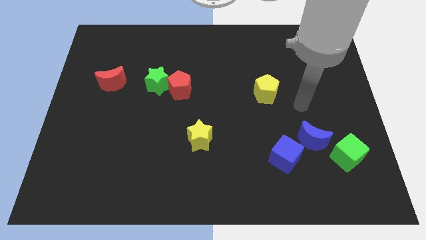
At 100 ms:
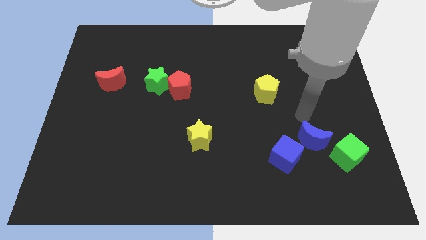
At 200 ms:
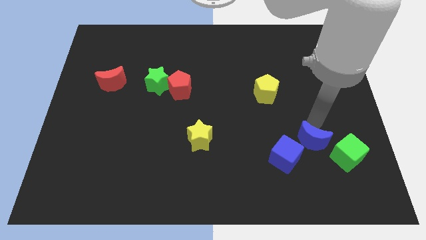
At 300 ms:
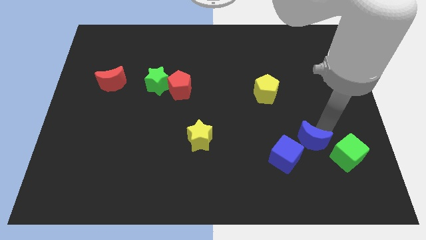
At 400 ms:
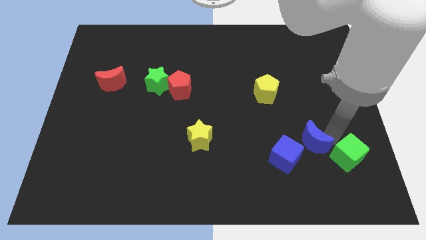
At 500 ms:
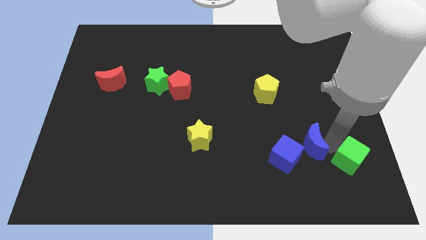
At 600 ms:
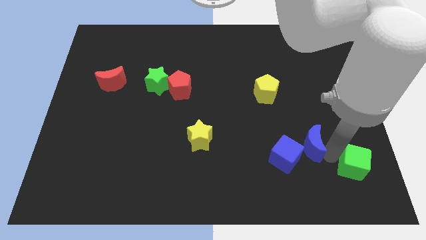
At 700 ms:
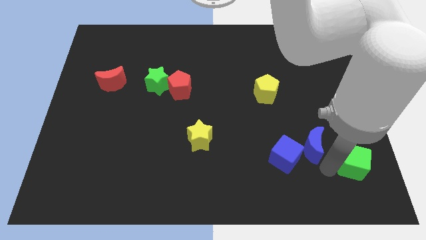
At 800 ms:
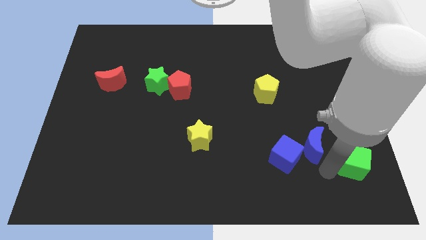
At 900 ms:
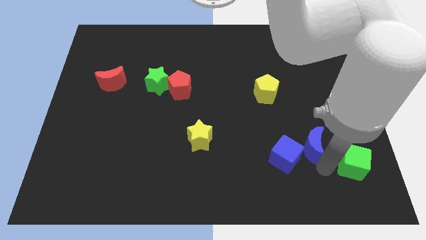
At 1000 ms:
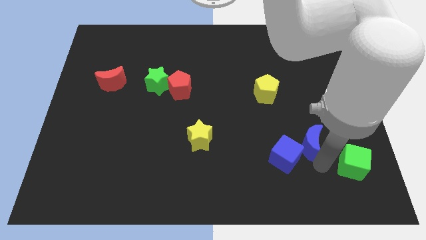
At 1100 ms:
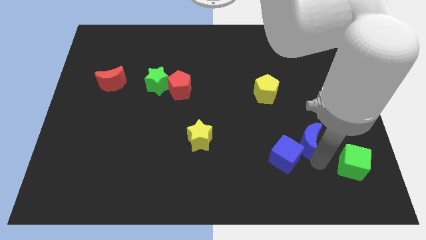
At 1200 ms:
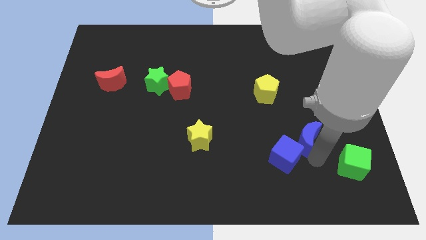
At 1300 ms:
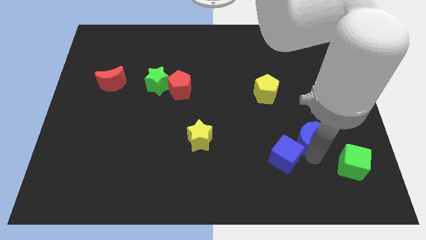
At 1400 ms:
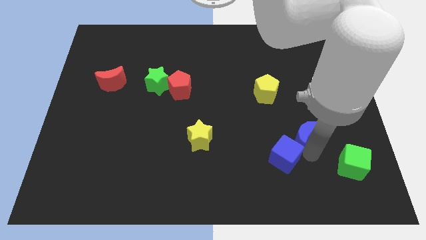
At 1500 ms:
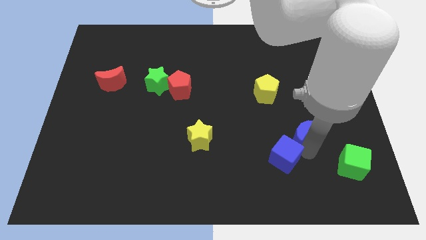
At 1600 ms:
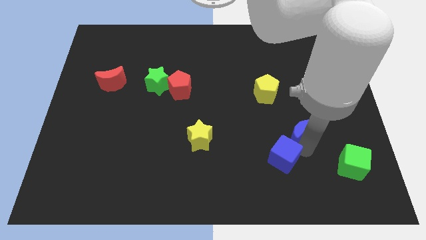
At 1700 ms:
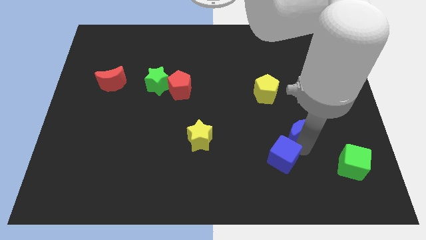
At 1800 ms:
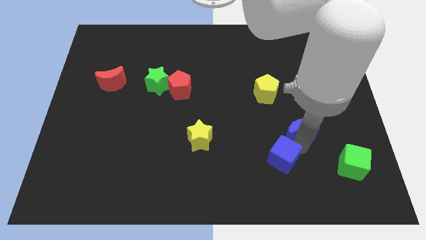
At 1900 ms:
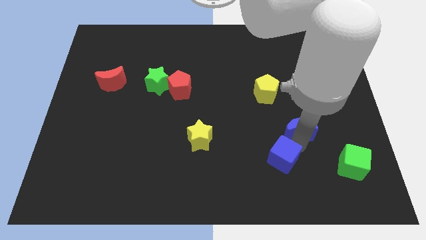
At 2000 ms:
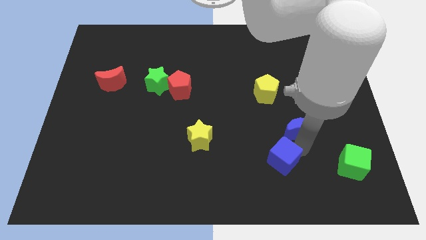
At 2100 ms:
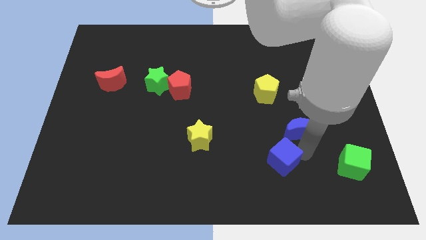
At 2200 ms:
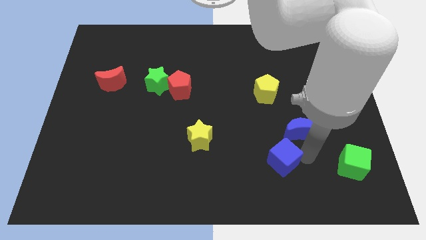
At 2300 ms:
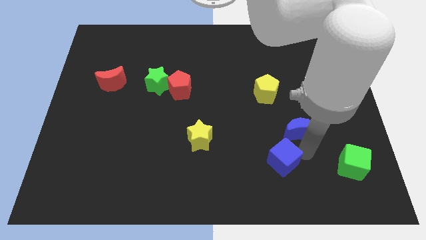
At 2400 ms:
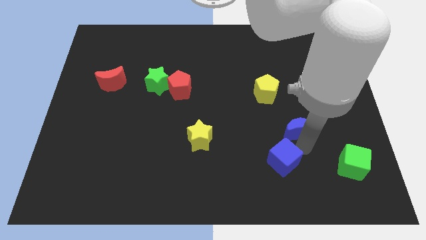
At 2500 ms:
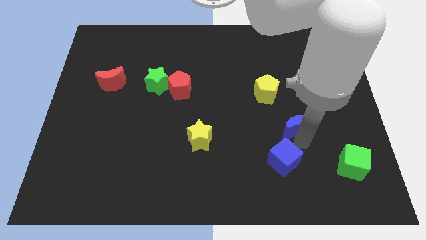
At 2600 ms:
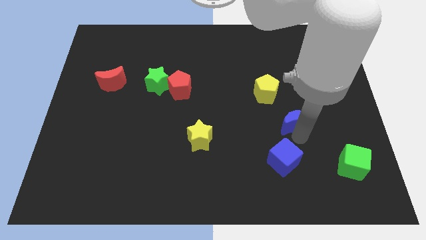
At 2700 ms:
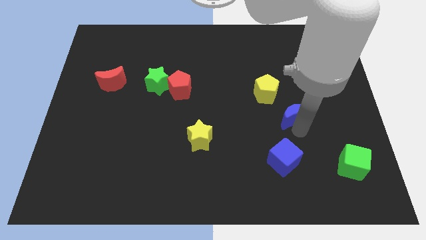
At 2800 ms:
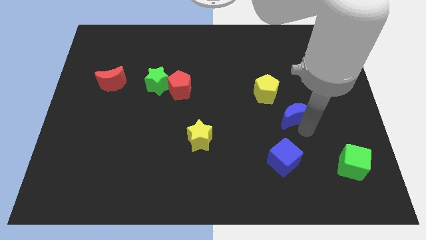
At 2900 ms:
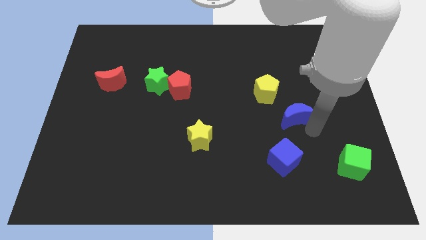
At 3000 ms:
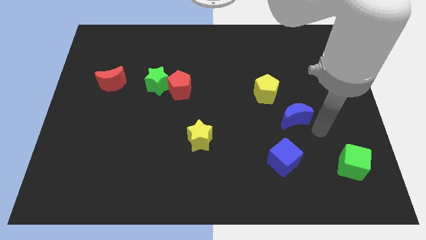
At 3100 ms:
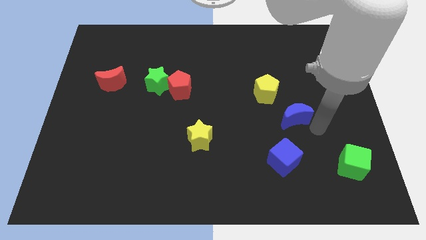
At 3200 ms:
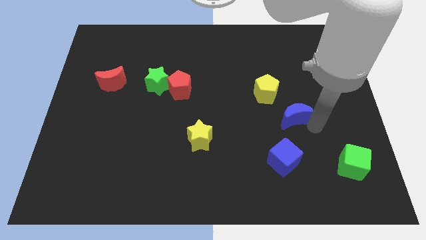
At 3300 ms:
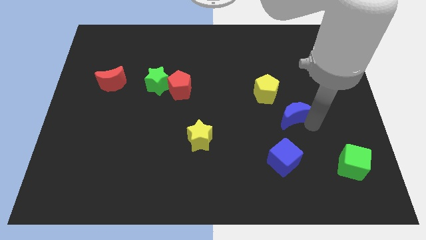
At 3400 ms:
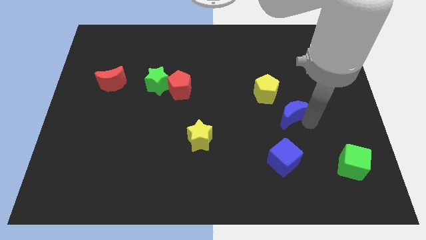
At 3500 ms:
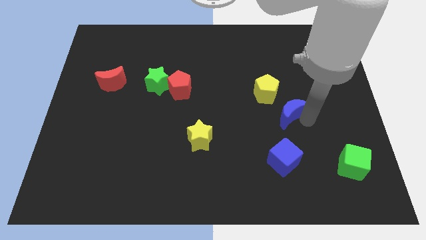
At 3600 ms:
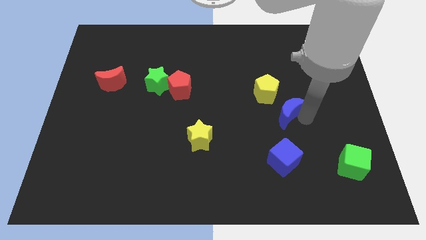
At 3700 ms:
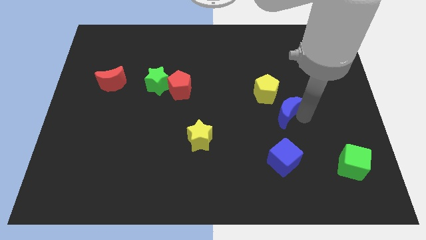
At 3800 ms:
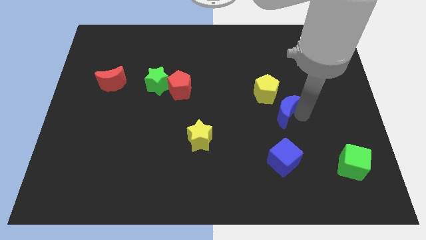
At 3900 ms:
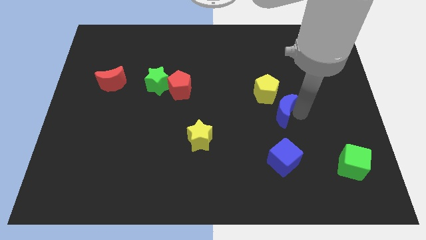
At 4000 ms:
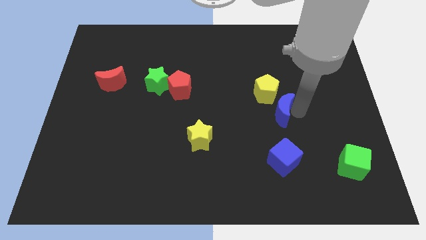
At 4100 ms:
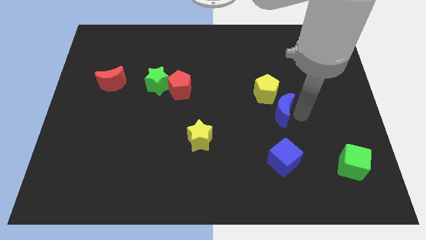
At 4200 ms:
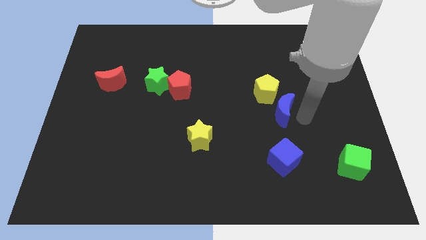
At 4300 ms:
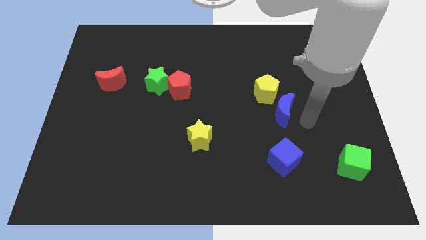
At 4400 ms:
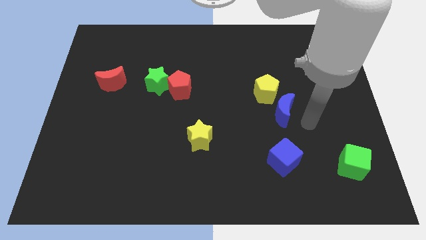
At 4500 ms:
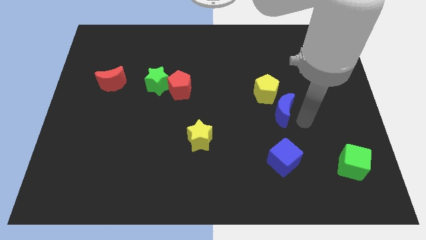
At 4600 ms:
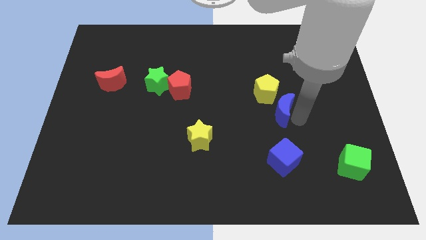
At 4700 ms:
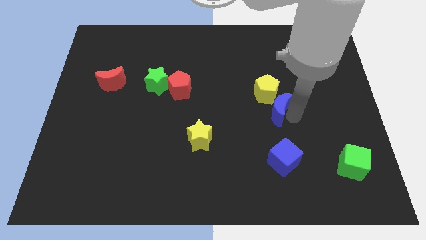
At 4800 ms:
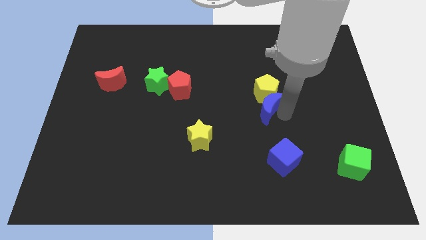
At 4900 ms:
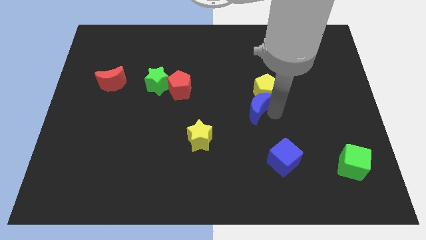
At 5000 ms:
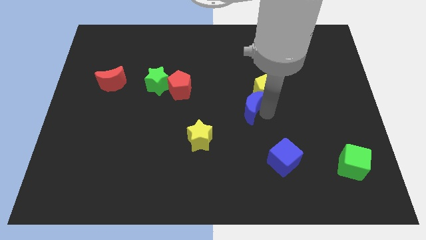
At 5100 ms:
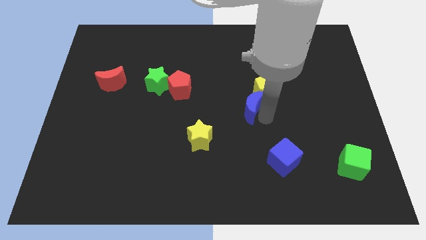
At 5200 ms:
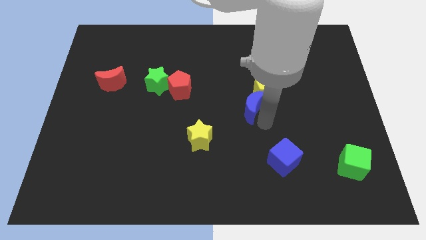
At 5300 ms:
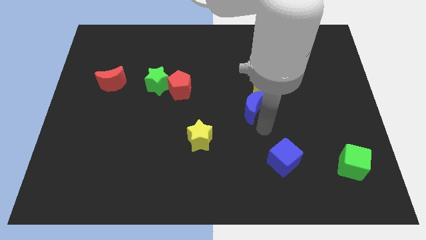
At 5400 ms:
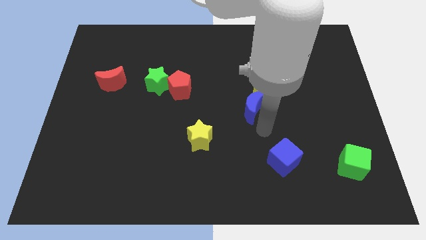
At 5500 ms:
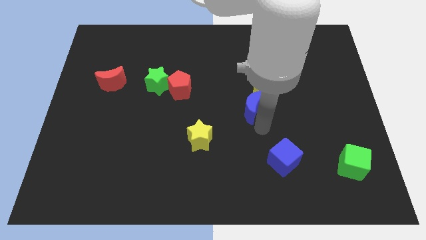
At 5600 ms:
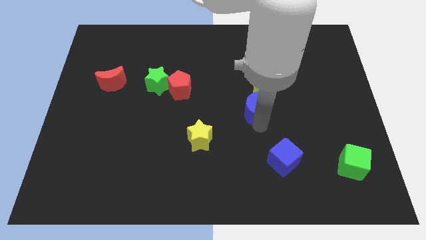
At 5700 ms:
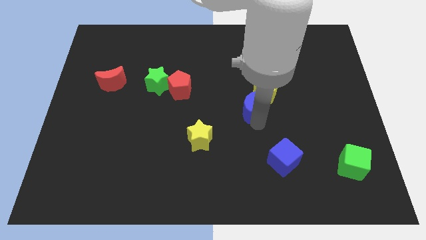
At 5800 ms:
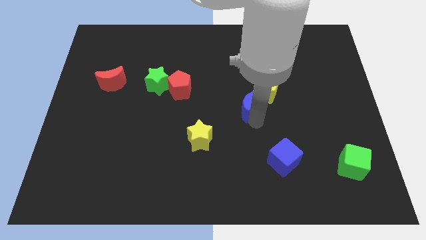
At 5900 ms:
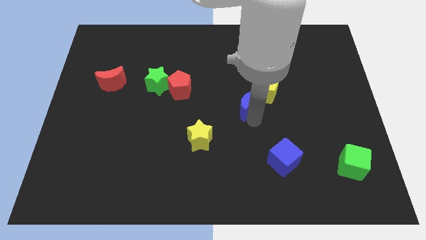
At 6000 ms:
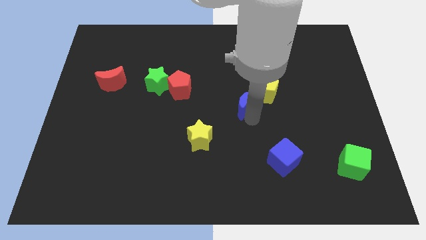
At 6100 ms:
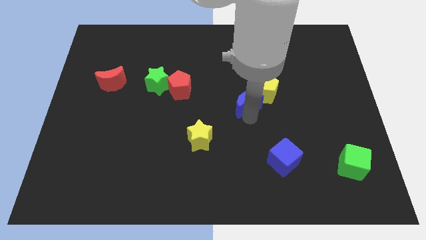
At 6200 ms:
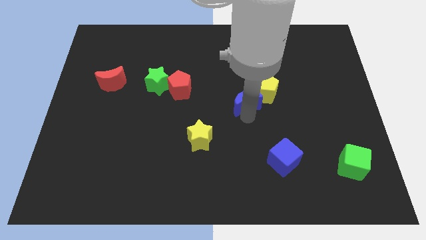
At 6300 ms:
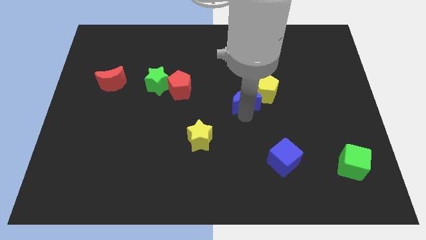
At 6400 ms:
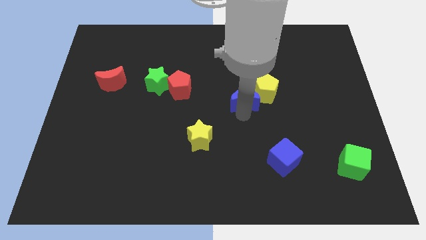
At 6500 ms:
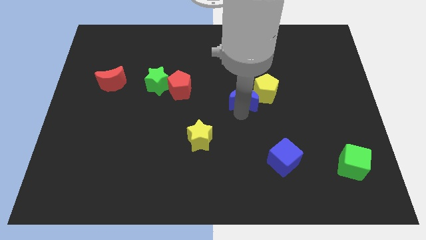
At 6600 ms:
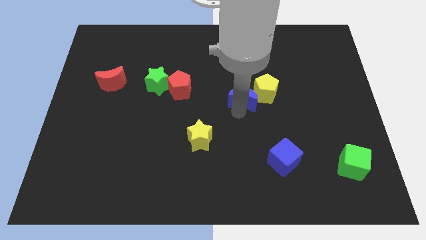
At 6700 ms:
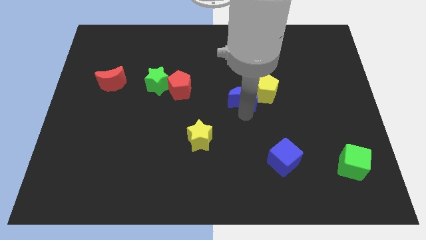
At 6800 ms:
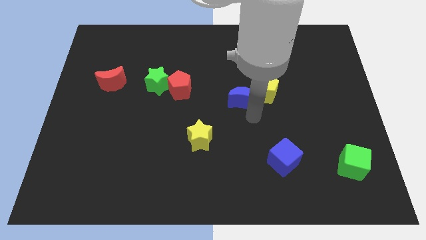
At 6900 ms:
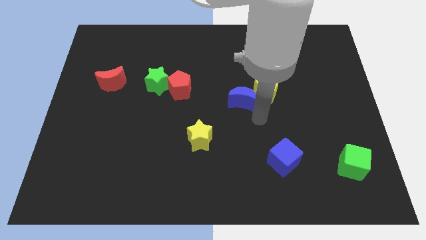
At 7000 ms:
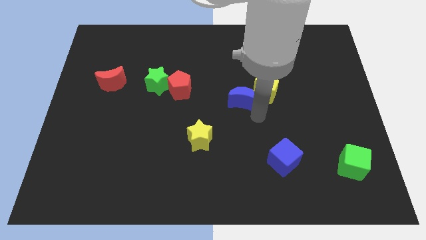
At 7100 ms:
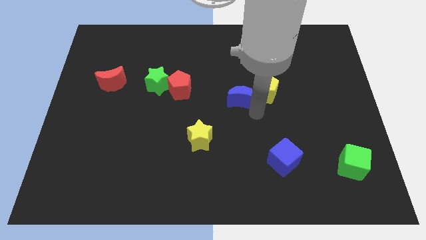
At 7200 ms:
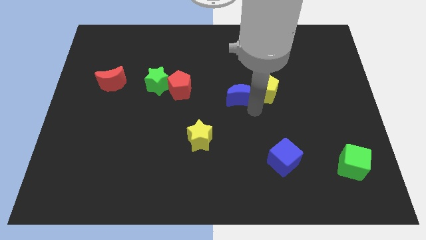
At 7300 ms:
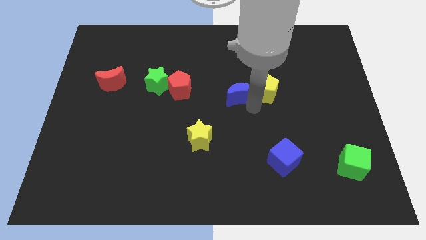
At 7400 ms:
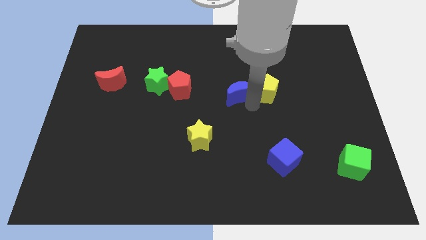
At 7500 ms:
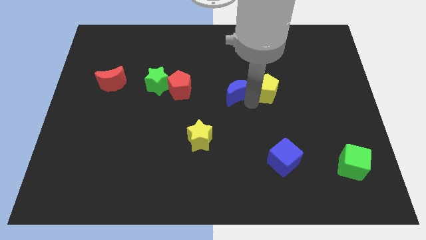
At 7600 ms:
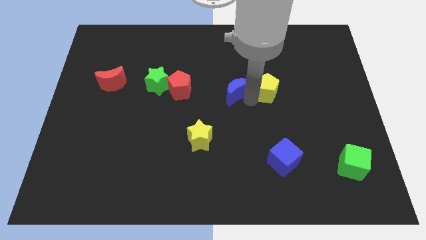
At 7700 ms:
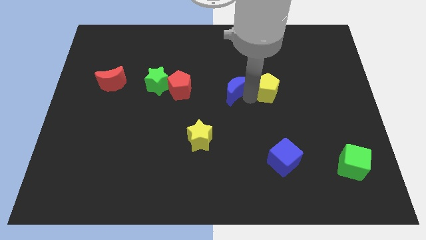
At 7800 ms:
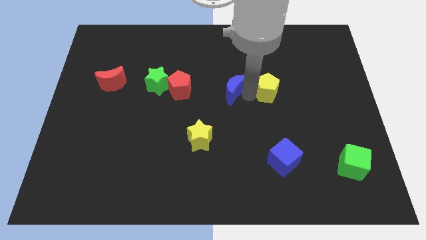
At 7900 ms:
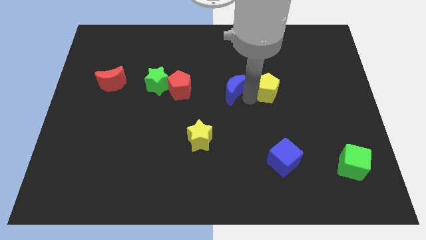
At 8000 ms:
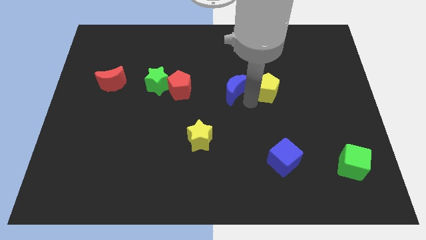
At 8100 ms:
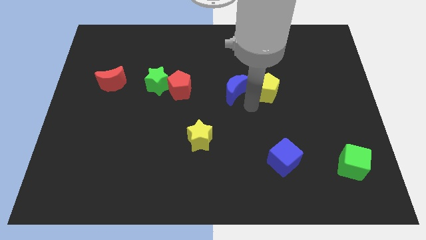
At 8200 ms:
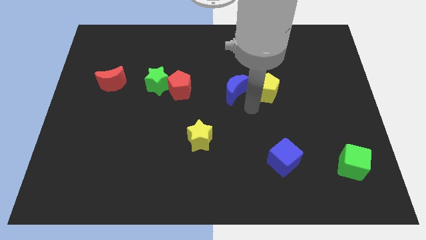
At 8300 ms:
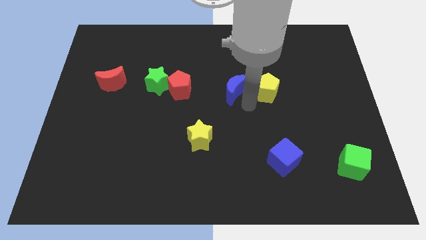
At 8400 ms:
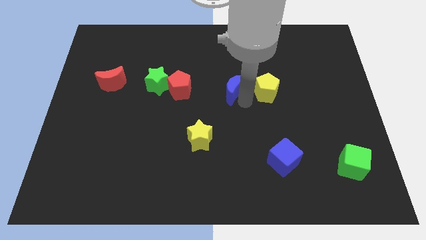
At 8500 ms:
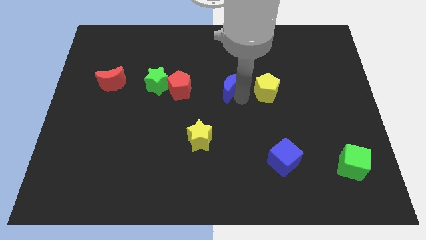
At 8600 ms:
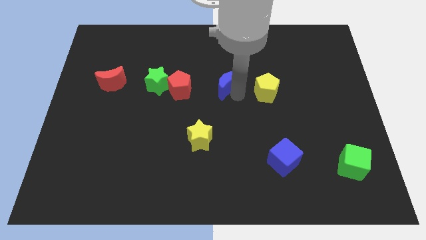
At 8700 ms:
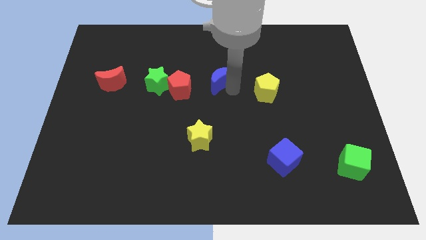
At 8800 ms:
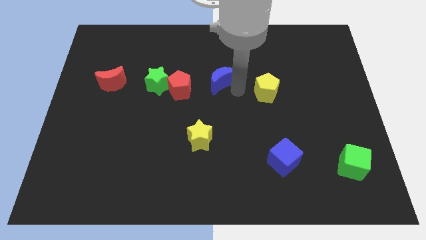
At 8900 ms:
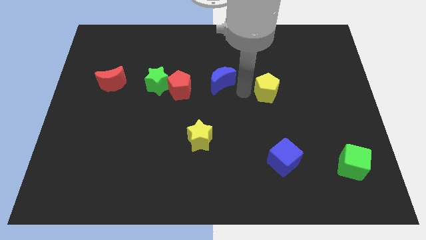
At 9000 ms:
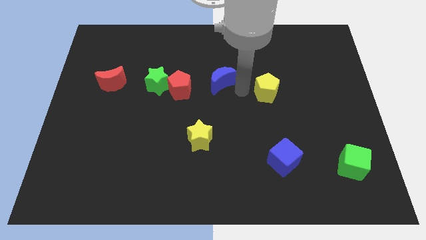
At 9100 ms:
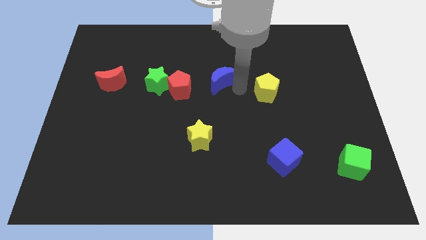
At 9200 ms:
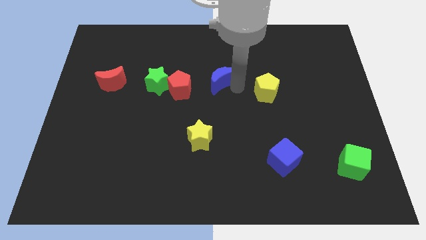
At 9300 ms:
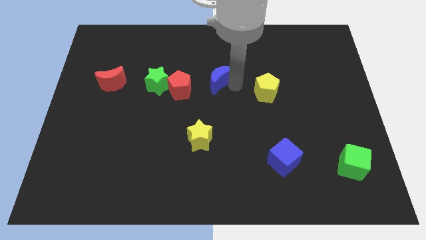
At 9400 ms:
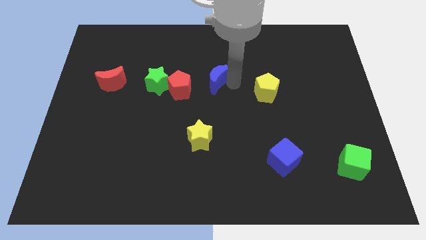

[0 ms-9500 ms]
push the blue moon to the top right of the red pentagon
